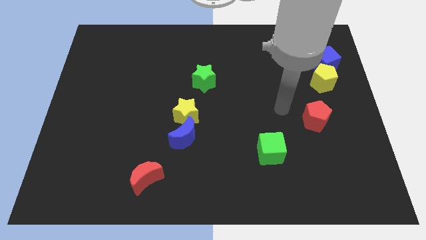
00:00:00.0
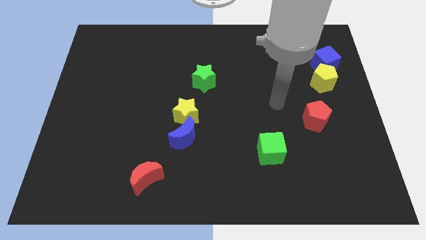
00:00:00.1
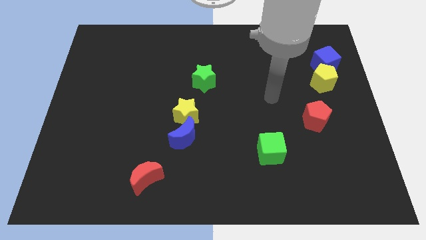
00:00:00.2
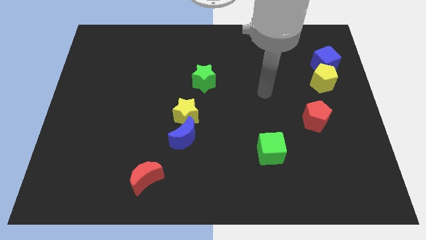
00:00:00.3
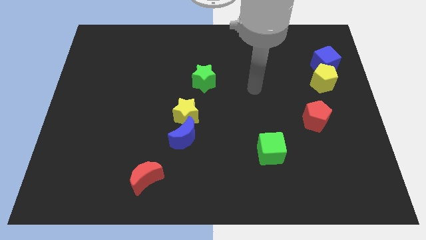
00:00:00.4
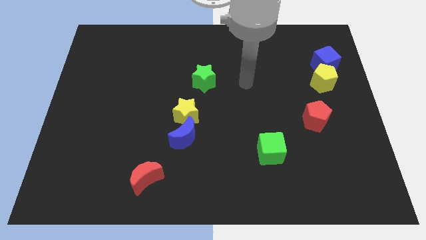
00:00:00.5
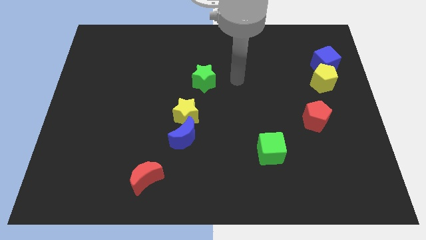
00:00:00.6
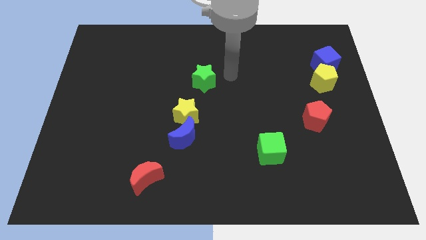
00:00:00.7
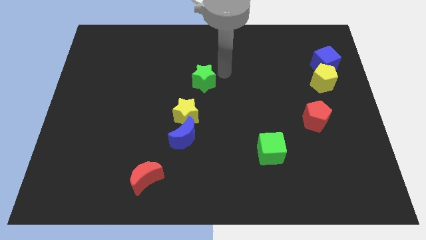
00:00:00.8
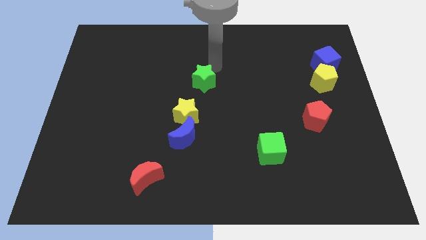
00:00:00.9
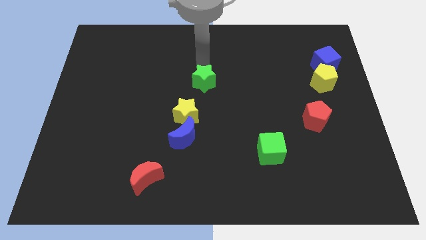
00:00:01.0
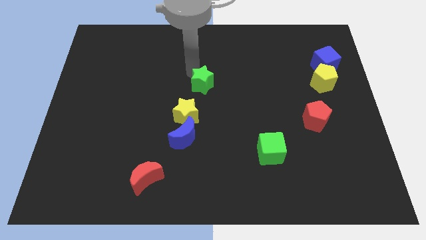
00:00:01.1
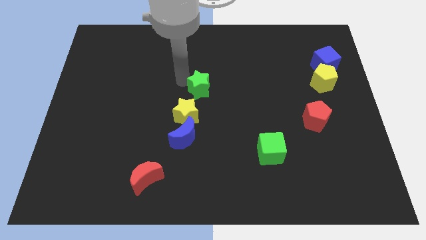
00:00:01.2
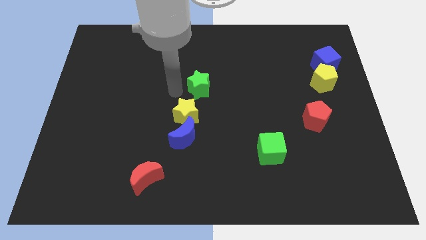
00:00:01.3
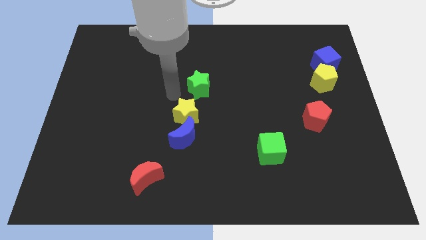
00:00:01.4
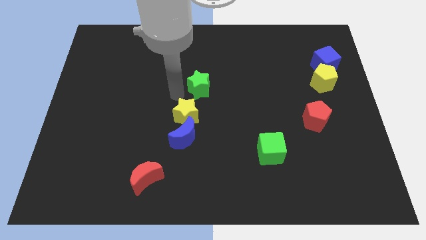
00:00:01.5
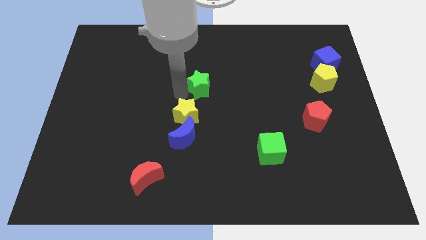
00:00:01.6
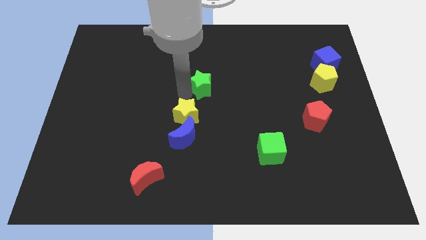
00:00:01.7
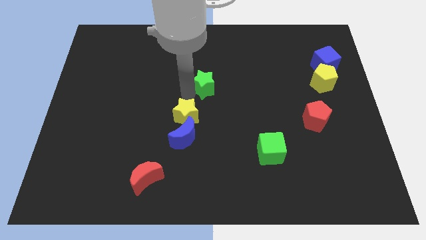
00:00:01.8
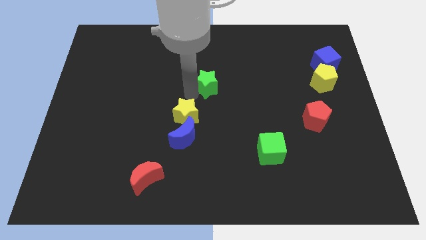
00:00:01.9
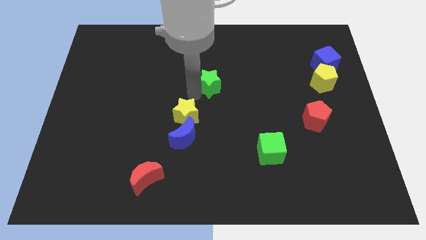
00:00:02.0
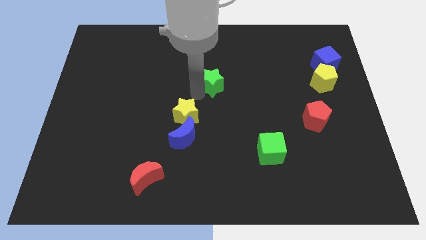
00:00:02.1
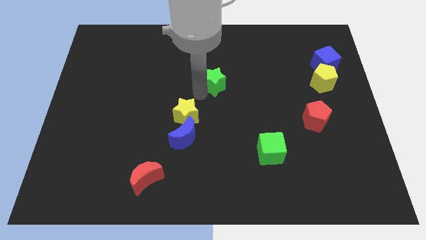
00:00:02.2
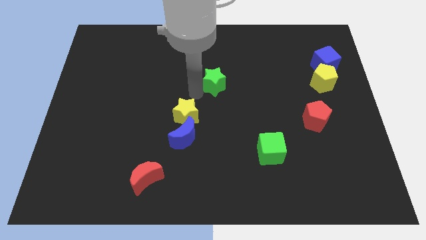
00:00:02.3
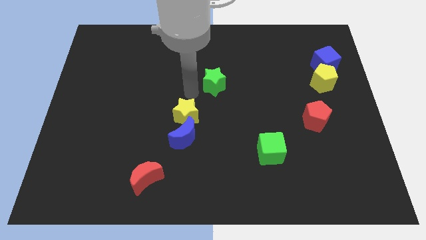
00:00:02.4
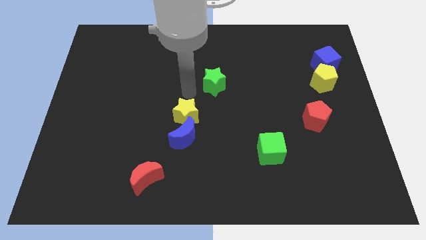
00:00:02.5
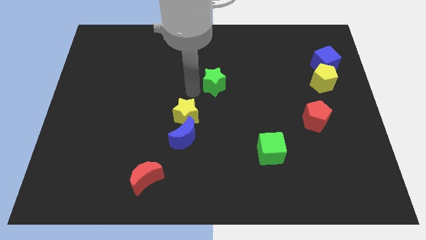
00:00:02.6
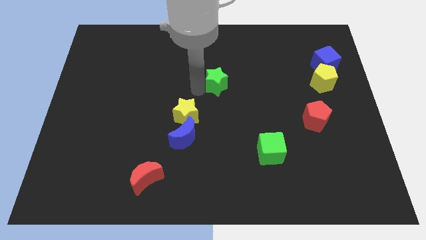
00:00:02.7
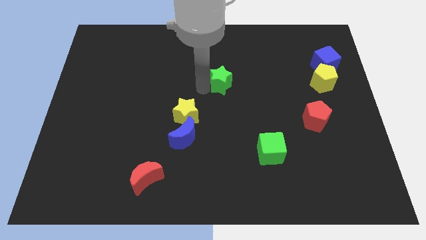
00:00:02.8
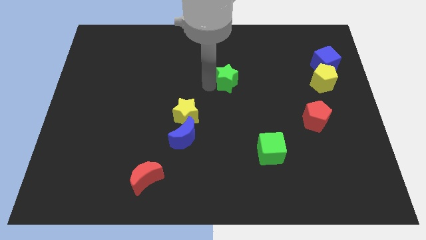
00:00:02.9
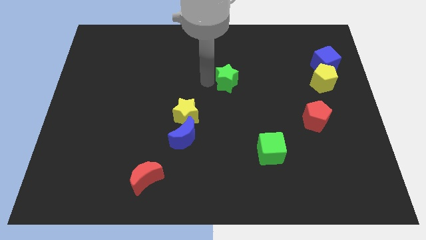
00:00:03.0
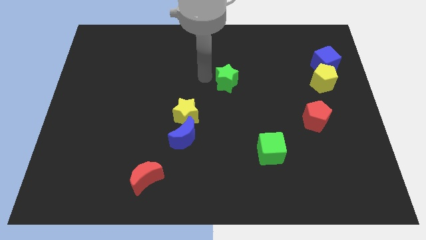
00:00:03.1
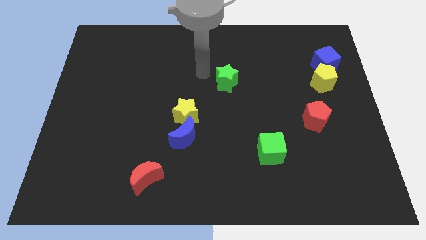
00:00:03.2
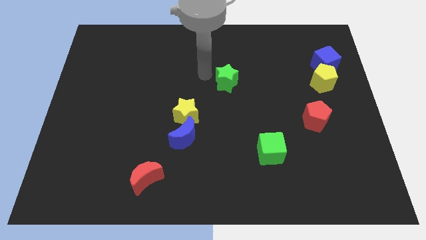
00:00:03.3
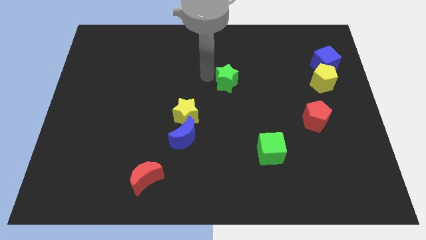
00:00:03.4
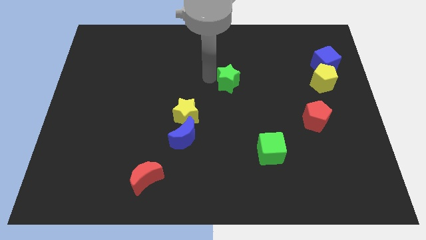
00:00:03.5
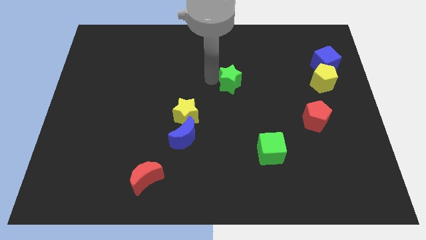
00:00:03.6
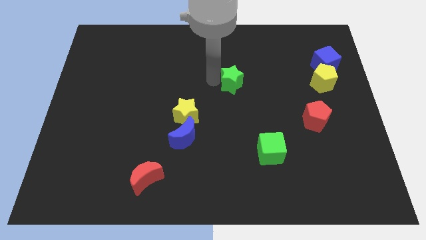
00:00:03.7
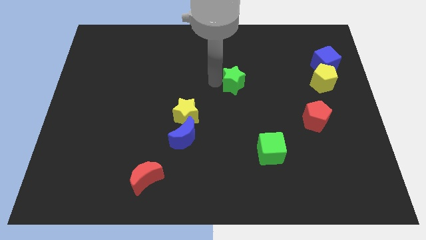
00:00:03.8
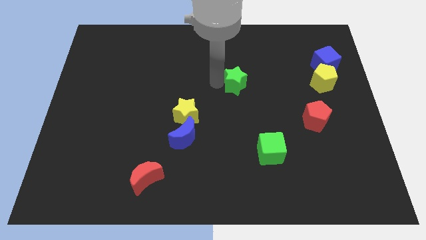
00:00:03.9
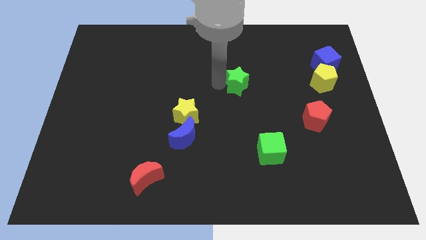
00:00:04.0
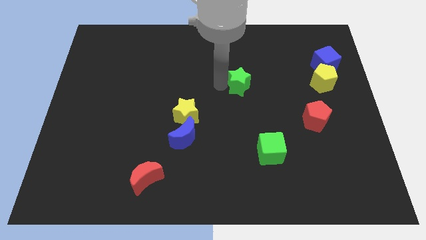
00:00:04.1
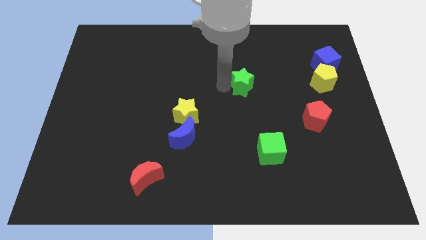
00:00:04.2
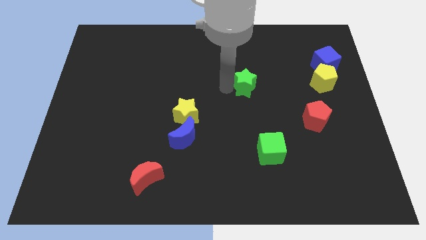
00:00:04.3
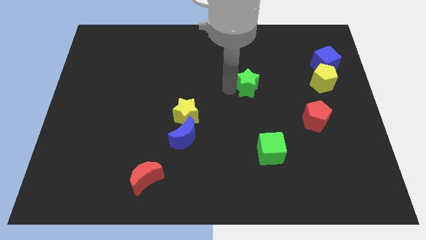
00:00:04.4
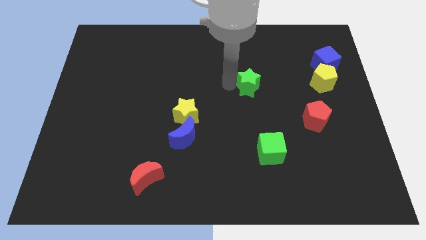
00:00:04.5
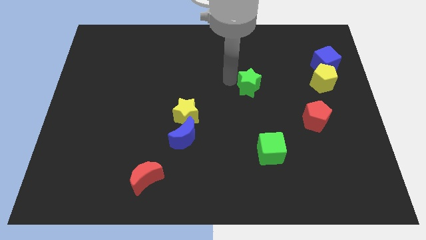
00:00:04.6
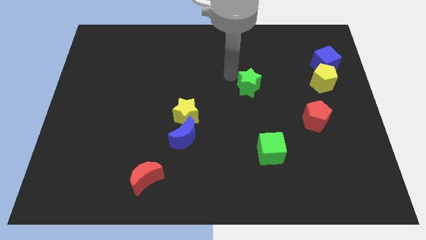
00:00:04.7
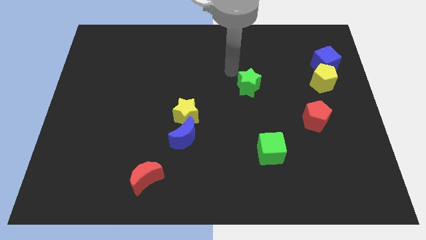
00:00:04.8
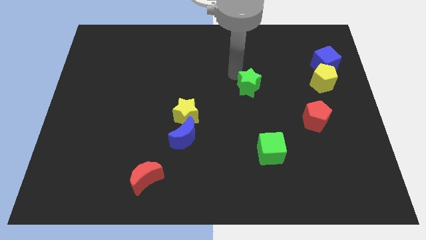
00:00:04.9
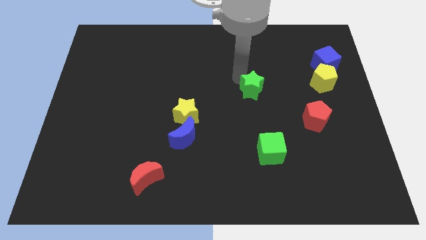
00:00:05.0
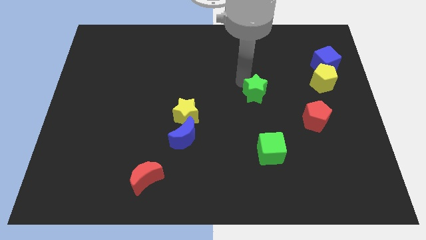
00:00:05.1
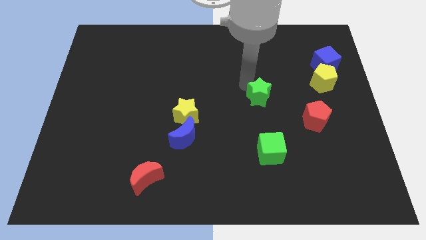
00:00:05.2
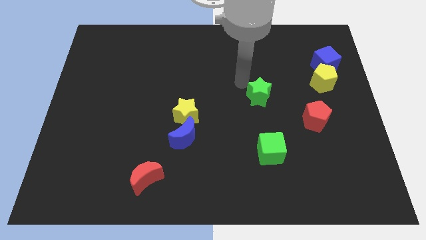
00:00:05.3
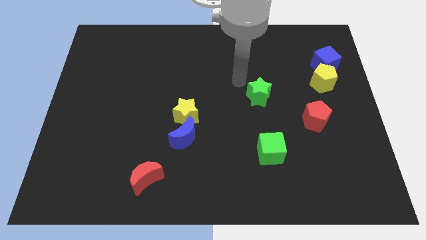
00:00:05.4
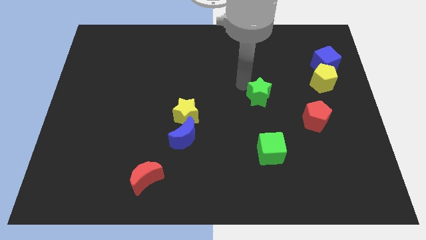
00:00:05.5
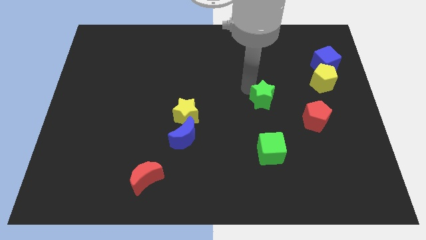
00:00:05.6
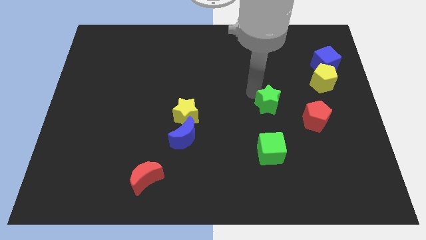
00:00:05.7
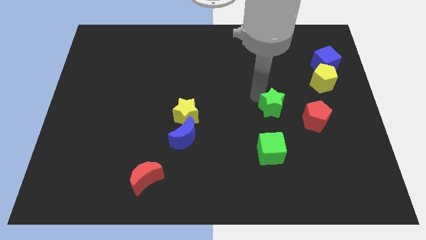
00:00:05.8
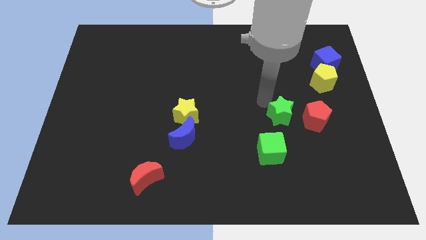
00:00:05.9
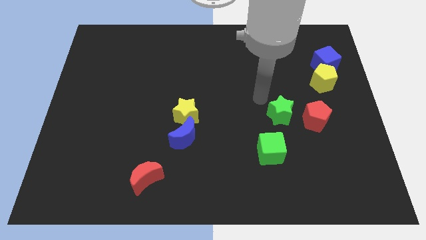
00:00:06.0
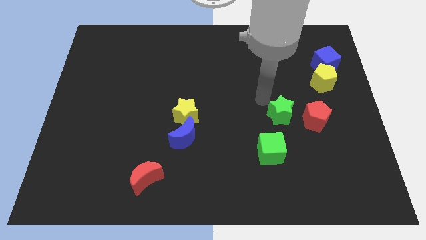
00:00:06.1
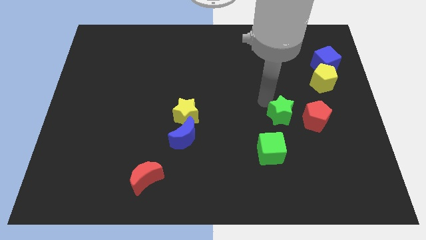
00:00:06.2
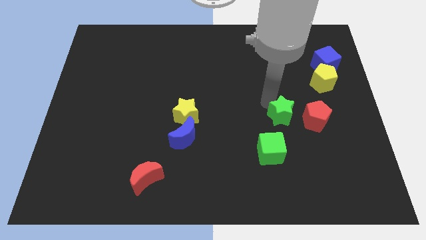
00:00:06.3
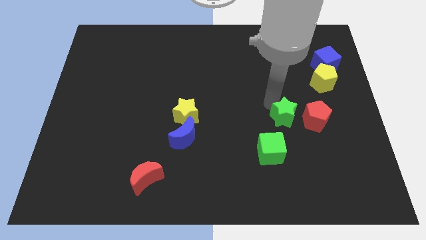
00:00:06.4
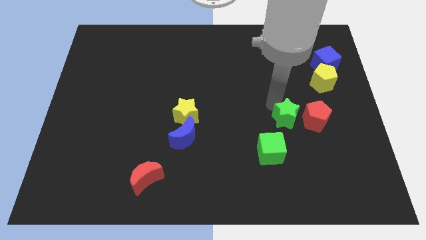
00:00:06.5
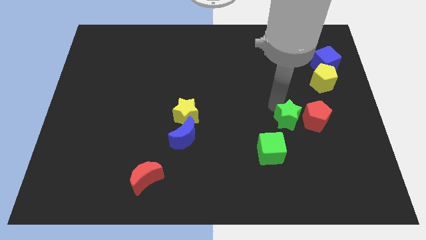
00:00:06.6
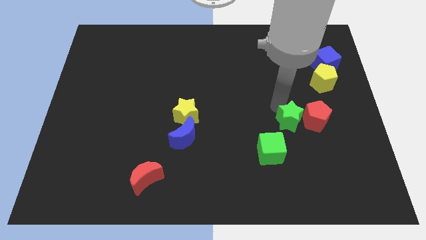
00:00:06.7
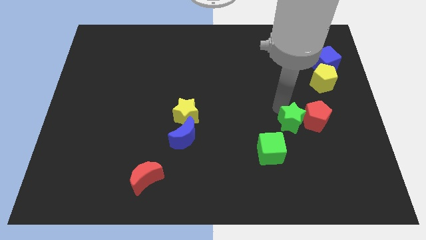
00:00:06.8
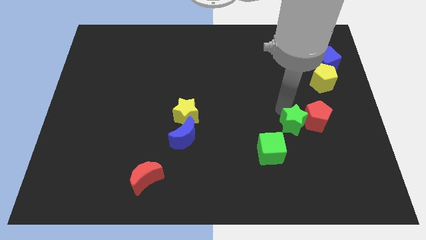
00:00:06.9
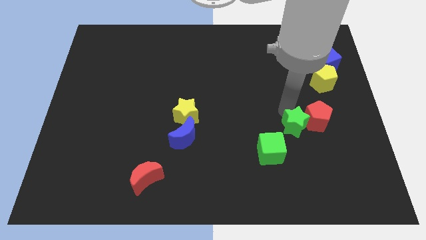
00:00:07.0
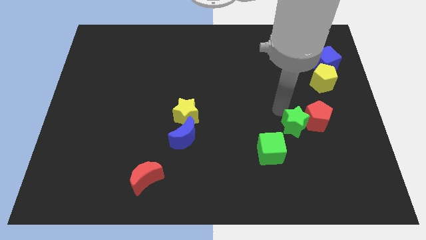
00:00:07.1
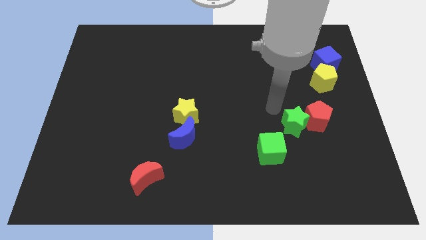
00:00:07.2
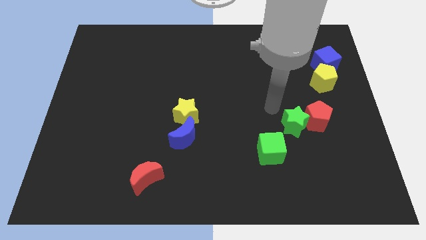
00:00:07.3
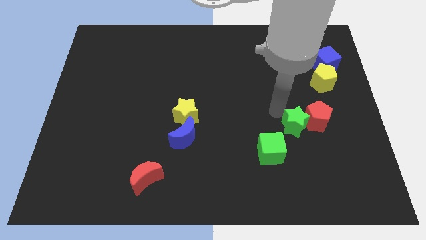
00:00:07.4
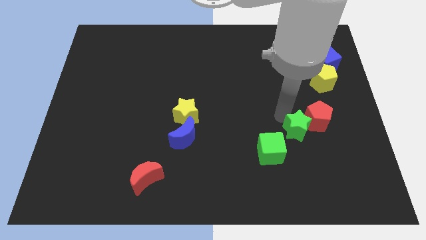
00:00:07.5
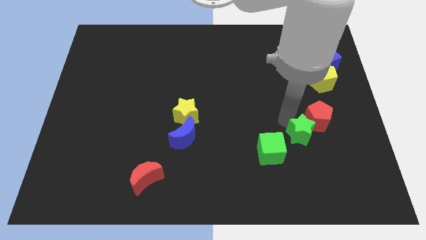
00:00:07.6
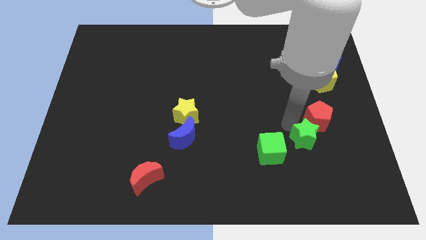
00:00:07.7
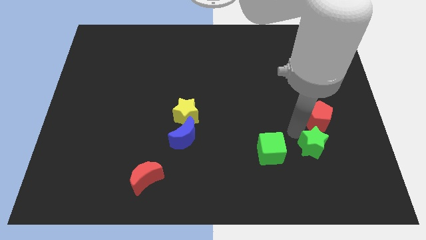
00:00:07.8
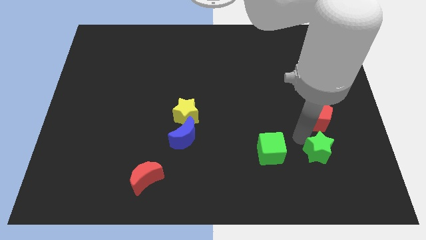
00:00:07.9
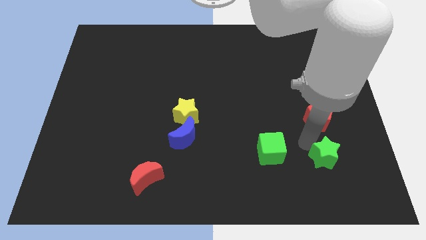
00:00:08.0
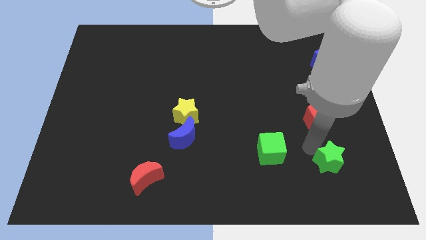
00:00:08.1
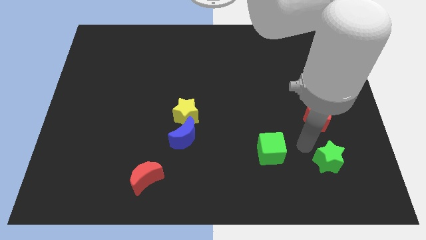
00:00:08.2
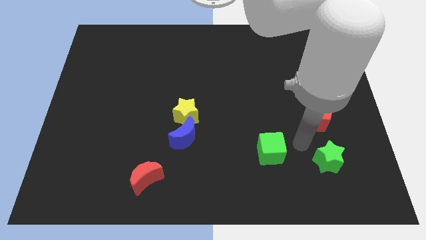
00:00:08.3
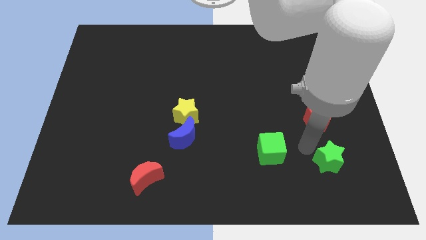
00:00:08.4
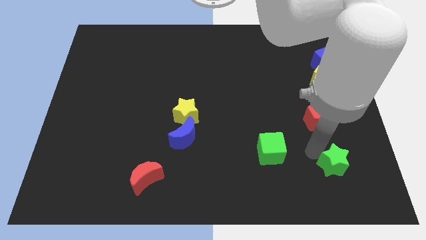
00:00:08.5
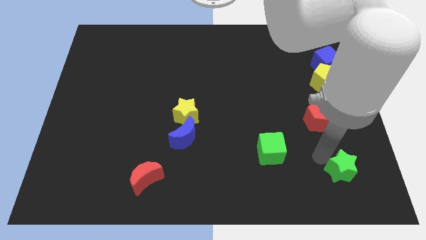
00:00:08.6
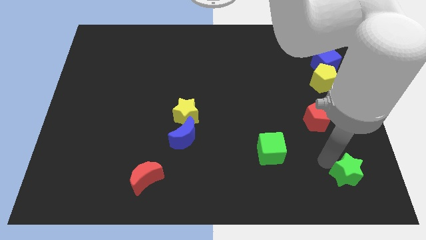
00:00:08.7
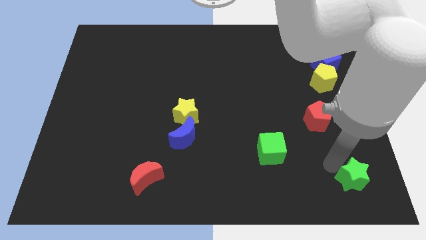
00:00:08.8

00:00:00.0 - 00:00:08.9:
put the green star to the bottom right corner
